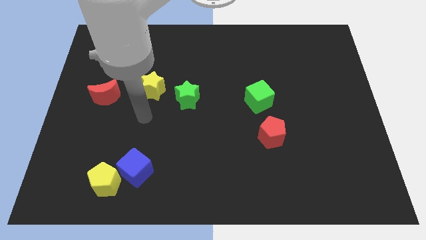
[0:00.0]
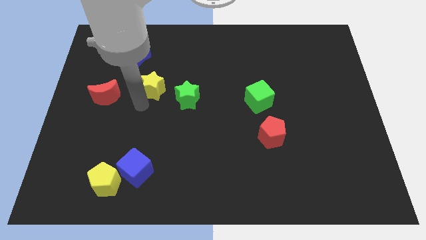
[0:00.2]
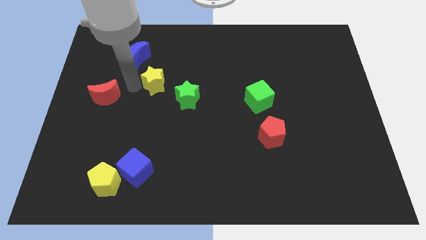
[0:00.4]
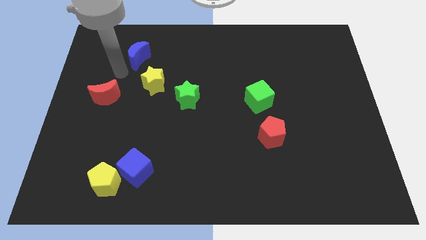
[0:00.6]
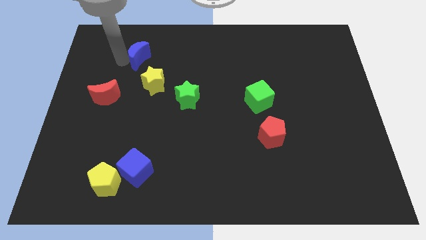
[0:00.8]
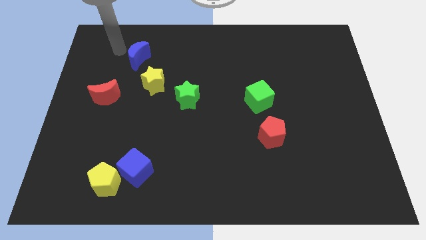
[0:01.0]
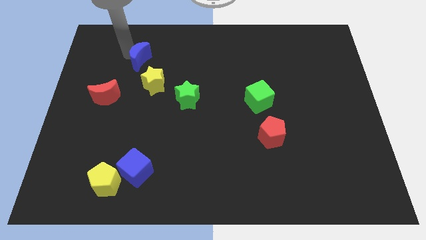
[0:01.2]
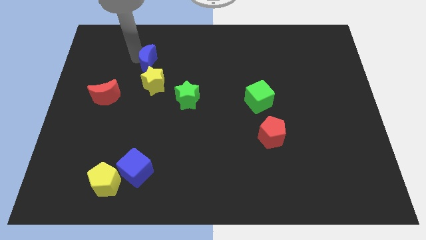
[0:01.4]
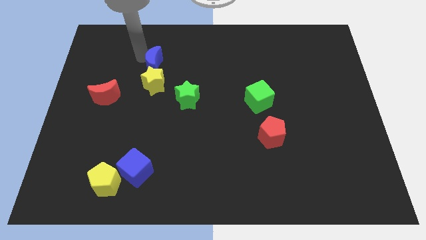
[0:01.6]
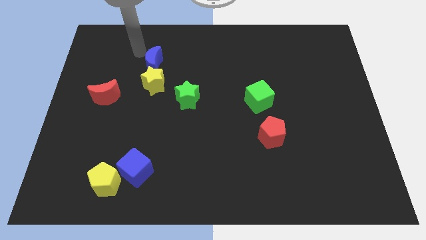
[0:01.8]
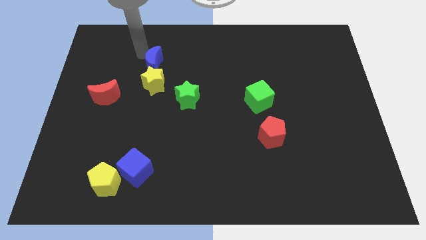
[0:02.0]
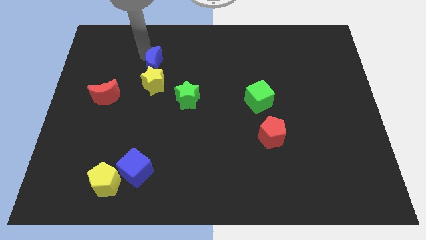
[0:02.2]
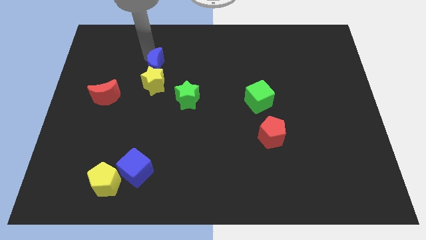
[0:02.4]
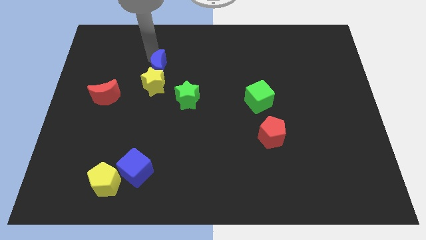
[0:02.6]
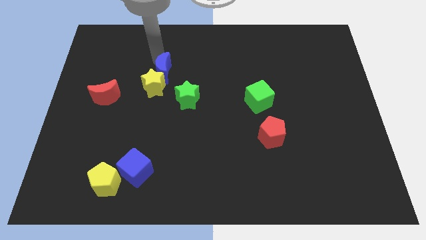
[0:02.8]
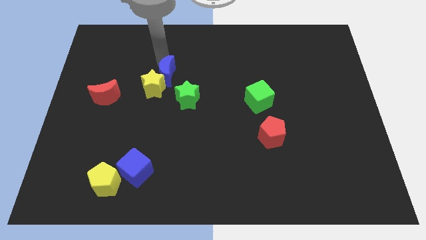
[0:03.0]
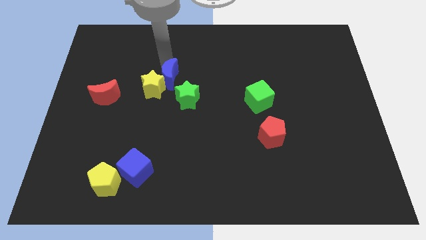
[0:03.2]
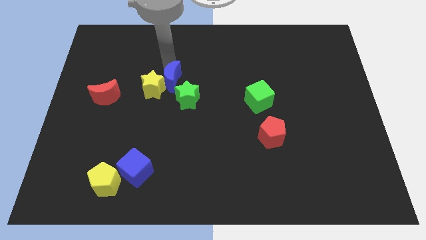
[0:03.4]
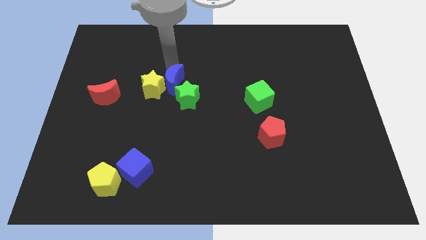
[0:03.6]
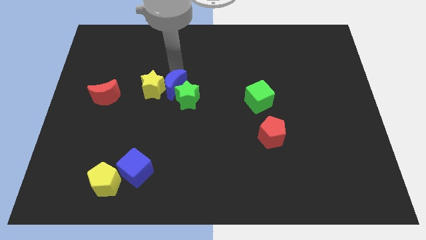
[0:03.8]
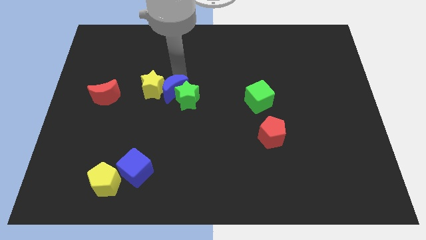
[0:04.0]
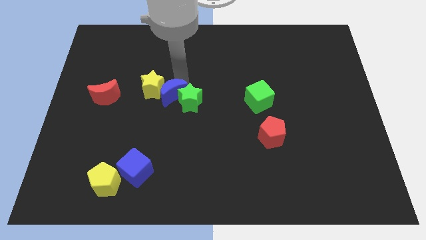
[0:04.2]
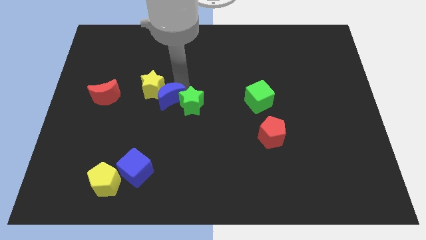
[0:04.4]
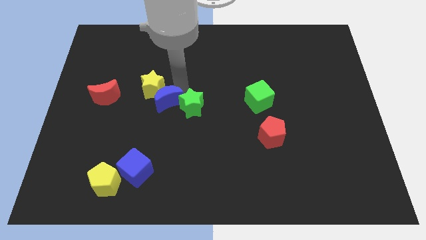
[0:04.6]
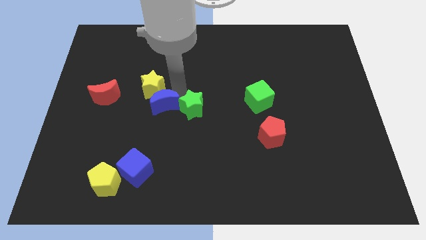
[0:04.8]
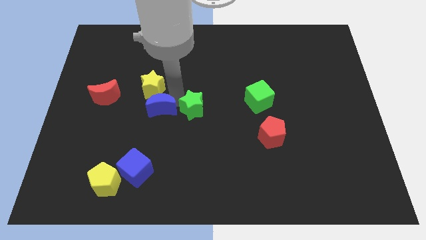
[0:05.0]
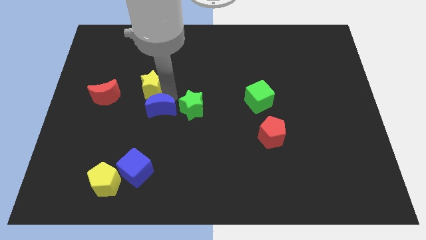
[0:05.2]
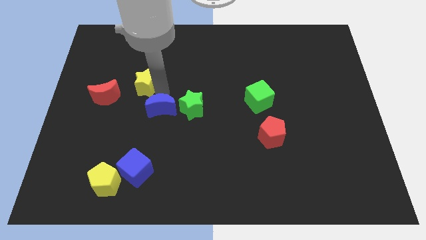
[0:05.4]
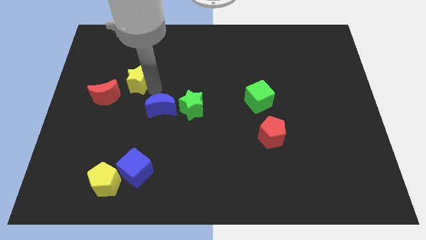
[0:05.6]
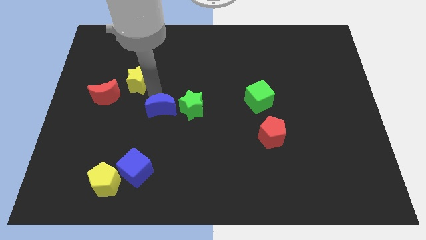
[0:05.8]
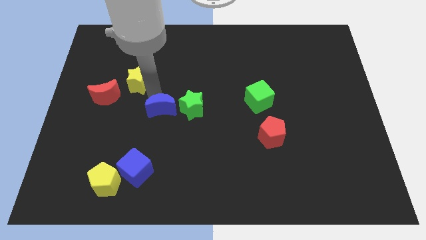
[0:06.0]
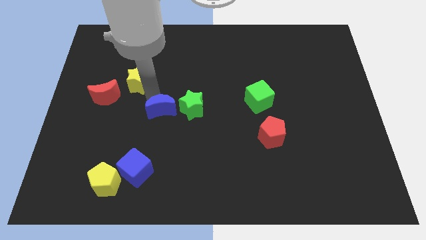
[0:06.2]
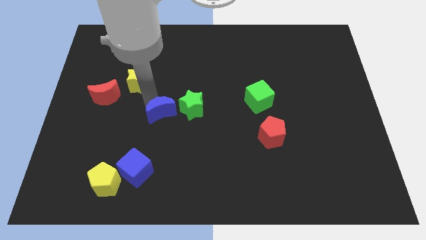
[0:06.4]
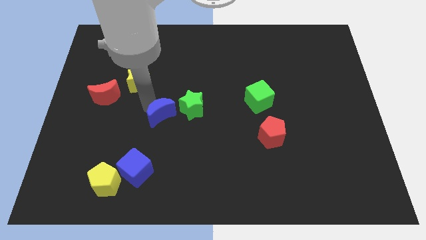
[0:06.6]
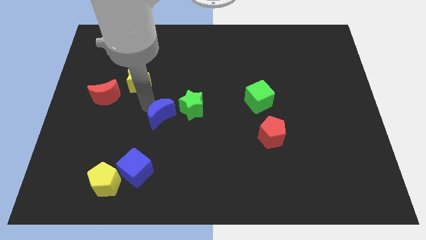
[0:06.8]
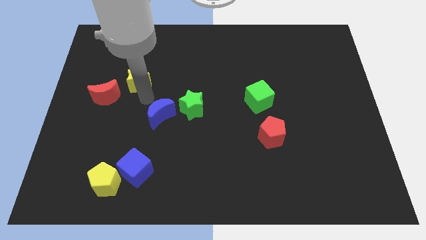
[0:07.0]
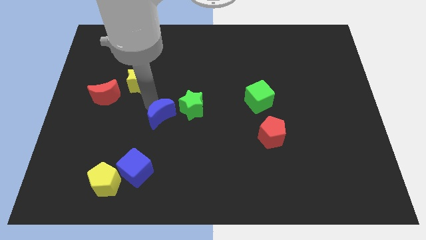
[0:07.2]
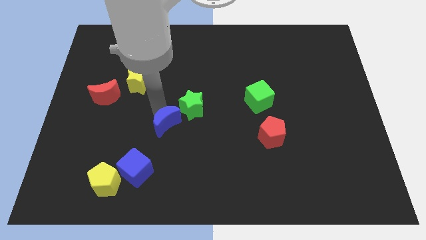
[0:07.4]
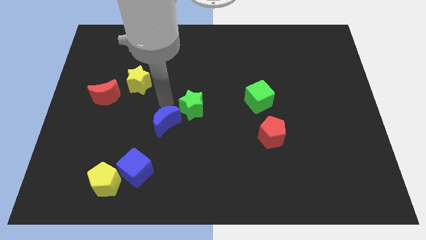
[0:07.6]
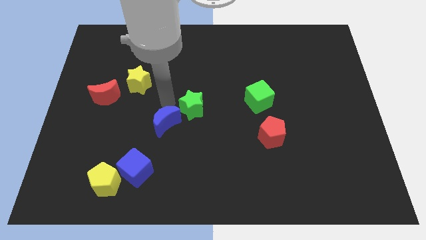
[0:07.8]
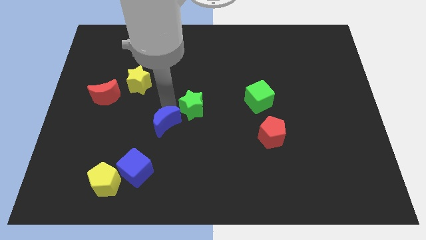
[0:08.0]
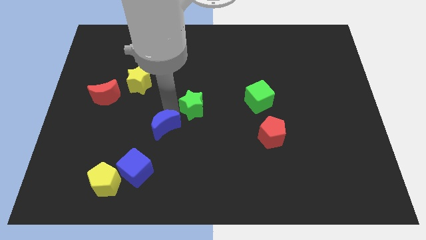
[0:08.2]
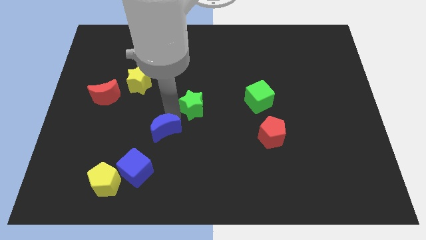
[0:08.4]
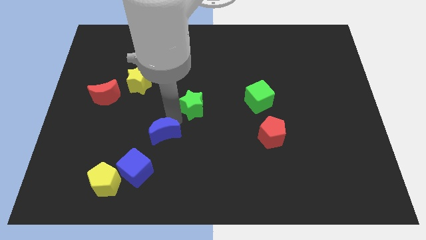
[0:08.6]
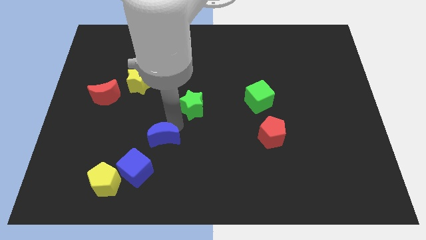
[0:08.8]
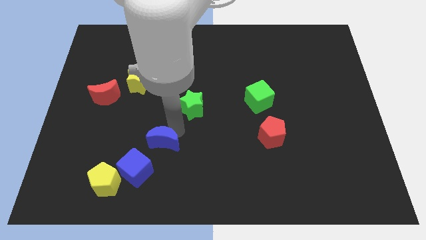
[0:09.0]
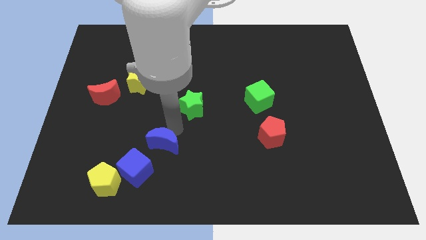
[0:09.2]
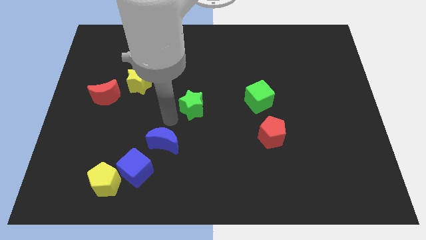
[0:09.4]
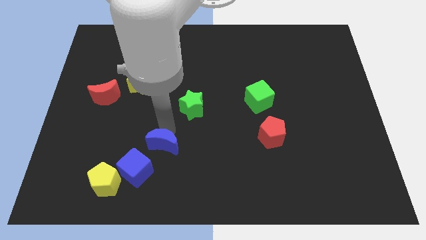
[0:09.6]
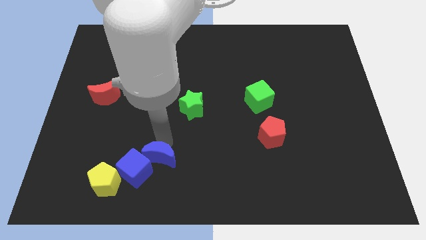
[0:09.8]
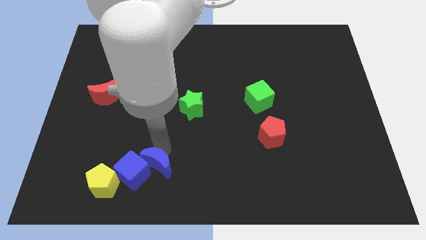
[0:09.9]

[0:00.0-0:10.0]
push the blue moon to the right of the yellow pentagon

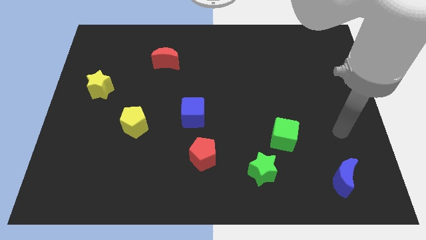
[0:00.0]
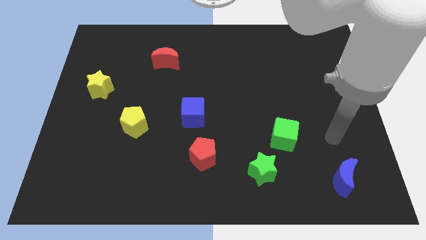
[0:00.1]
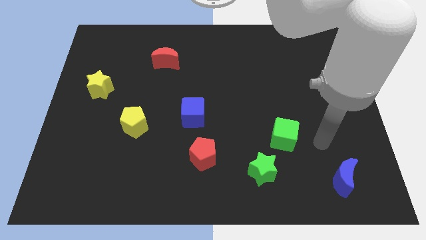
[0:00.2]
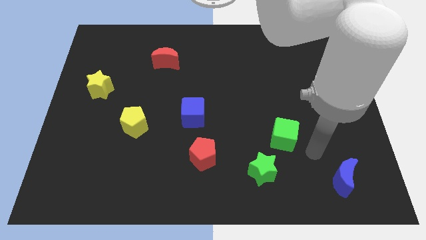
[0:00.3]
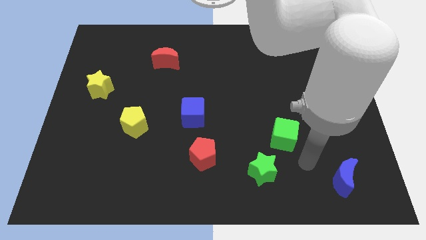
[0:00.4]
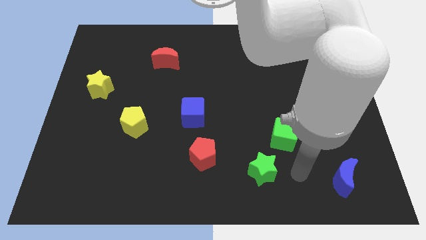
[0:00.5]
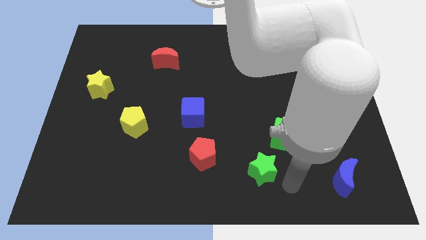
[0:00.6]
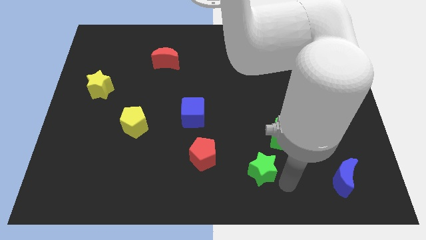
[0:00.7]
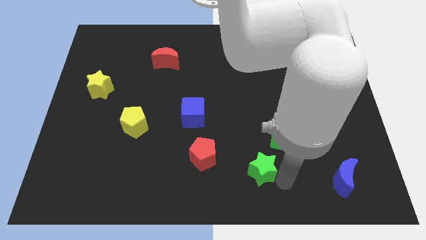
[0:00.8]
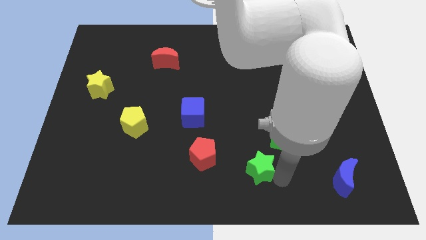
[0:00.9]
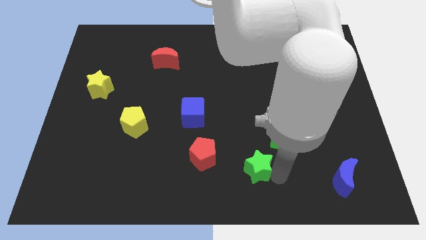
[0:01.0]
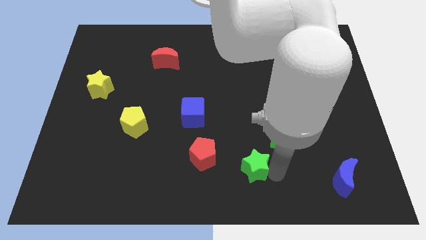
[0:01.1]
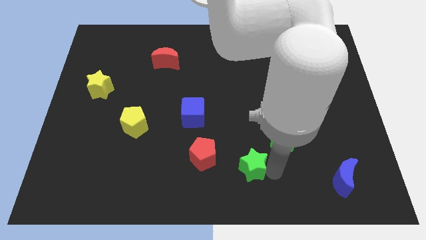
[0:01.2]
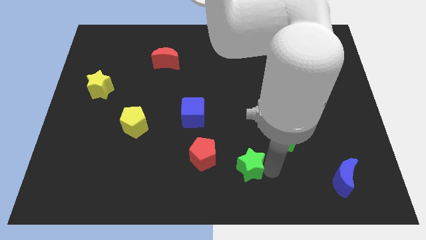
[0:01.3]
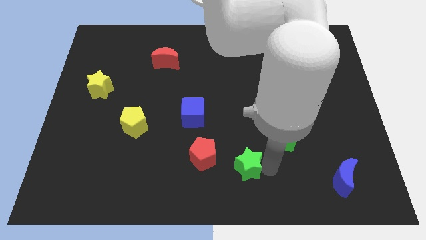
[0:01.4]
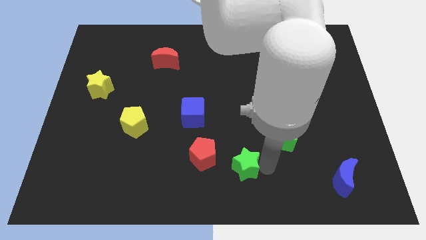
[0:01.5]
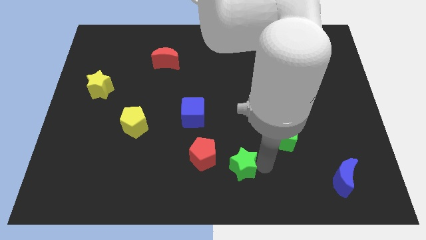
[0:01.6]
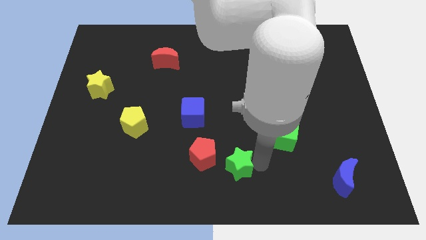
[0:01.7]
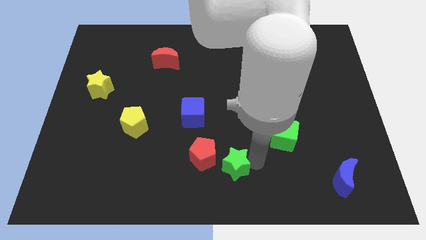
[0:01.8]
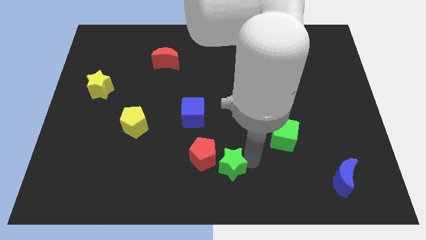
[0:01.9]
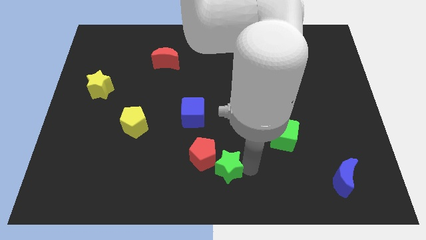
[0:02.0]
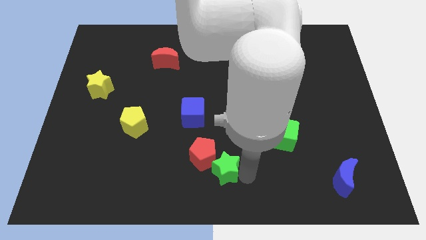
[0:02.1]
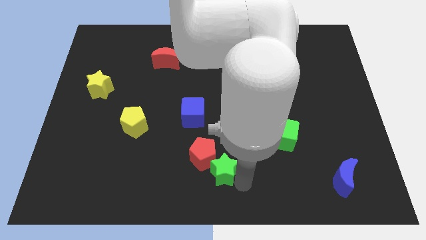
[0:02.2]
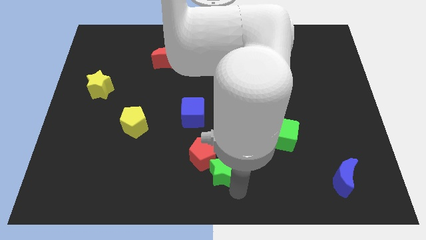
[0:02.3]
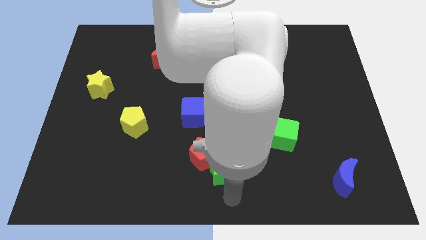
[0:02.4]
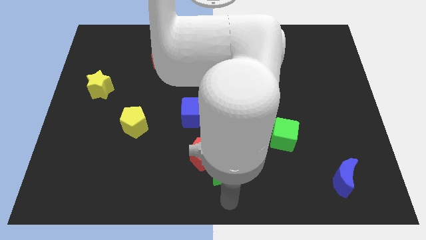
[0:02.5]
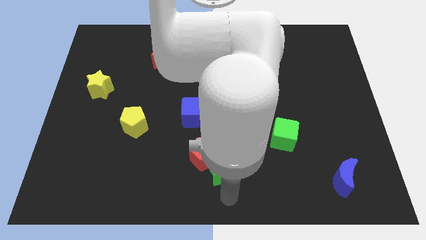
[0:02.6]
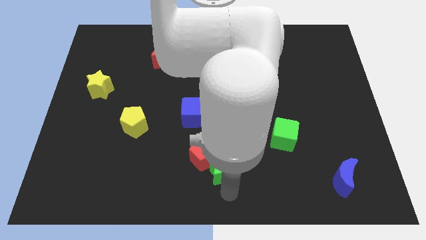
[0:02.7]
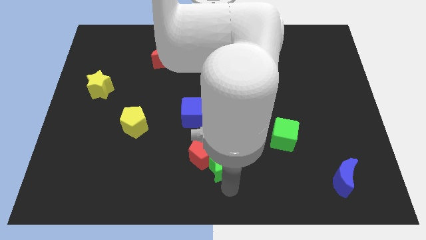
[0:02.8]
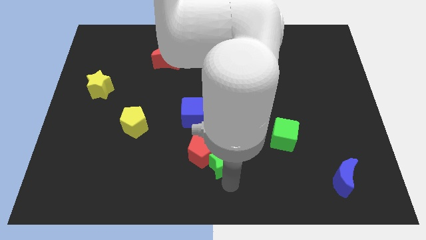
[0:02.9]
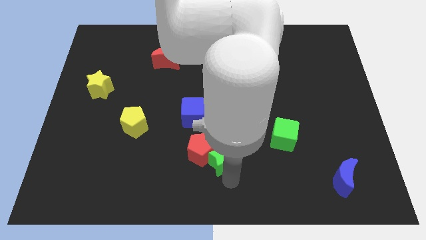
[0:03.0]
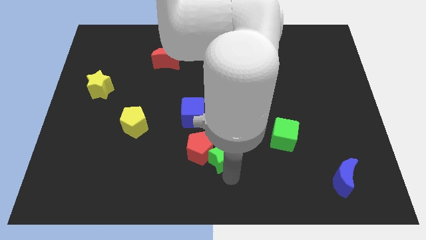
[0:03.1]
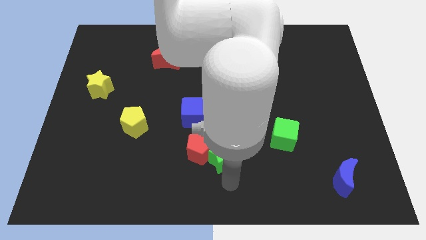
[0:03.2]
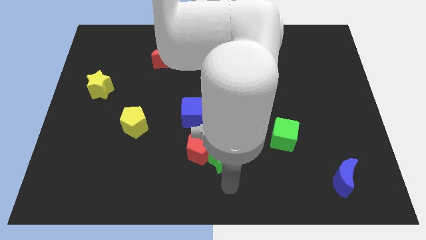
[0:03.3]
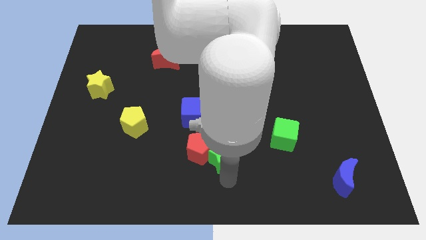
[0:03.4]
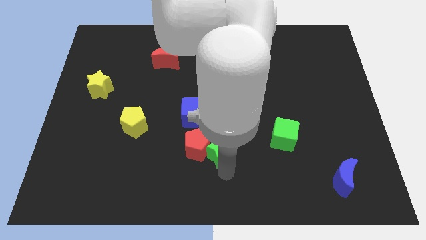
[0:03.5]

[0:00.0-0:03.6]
push the green star to the bottom right side of the blue cube
